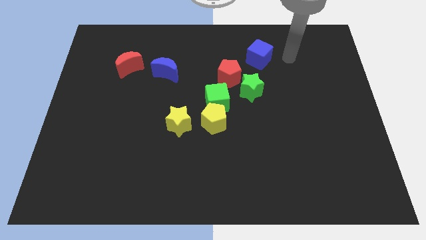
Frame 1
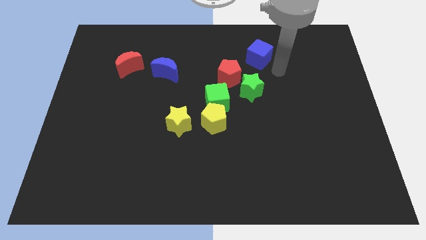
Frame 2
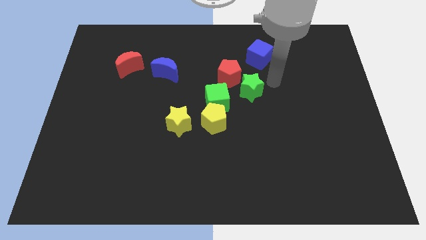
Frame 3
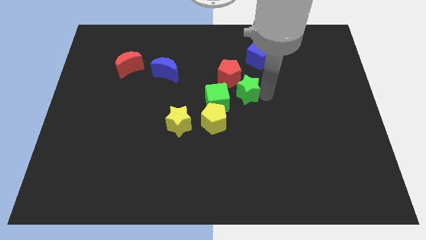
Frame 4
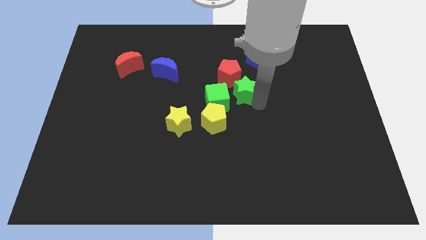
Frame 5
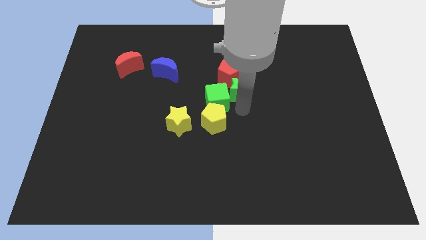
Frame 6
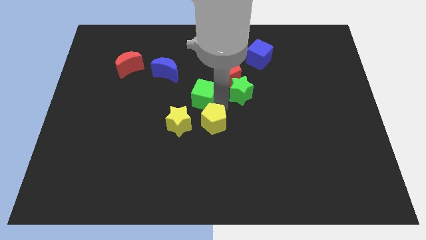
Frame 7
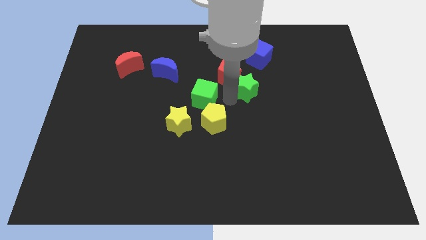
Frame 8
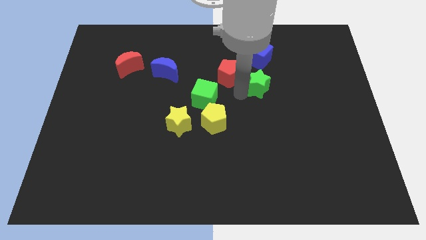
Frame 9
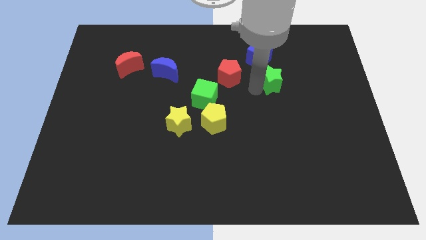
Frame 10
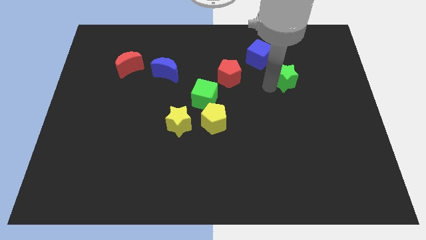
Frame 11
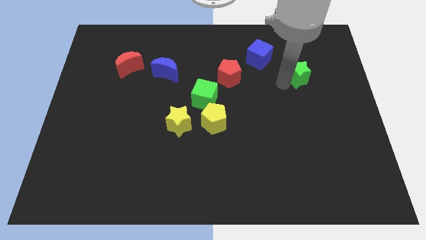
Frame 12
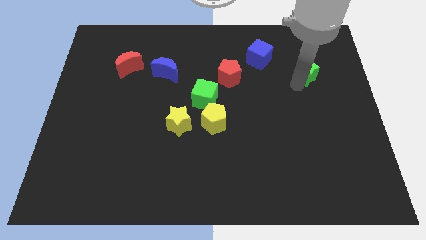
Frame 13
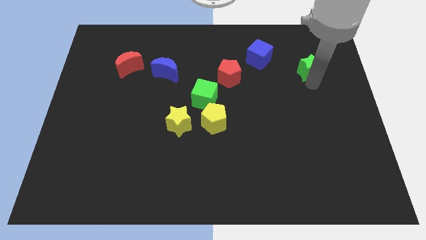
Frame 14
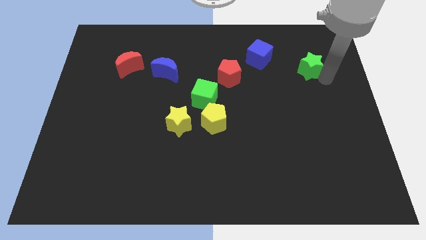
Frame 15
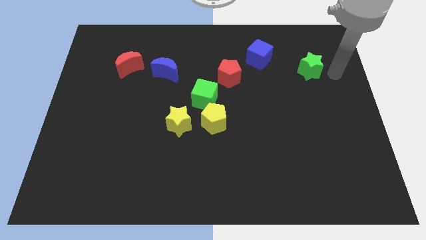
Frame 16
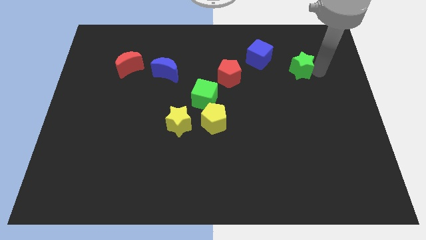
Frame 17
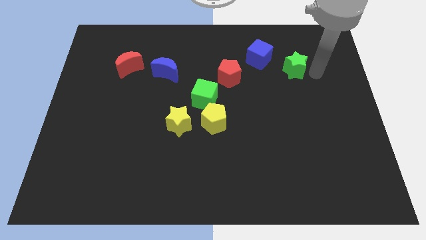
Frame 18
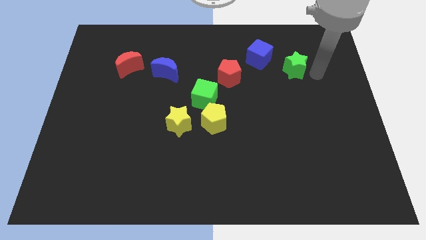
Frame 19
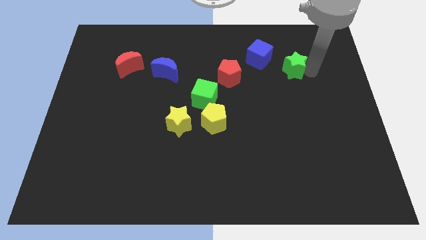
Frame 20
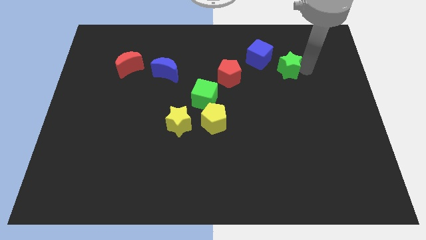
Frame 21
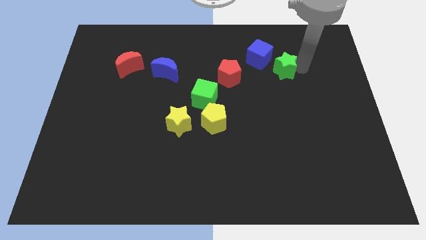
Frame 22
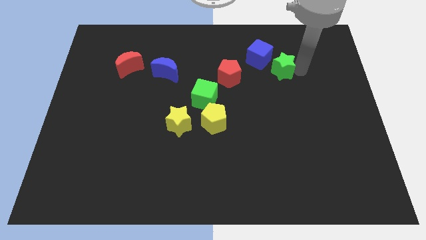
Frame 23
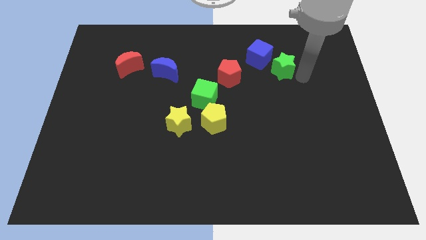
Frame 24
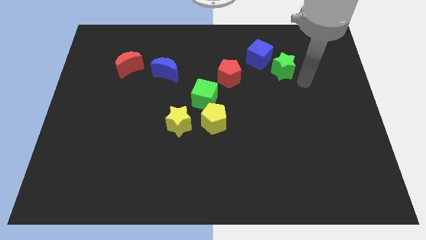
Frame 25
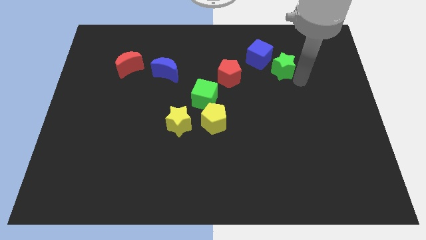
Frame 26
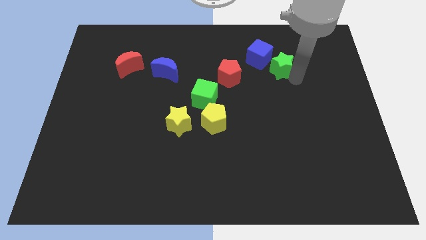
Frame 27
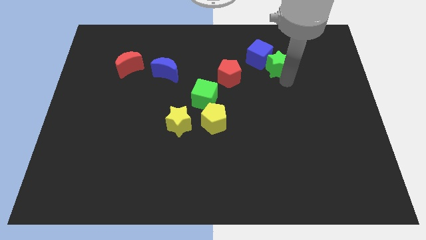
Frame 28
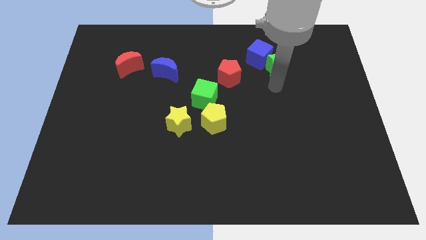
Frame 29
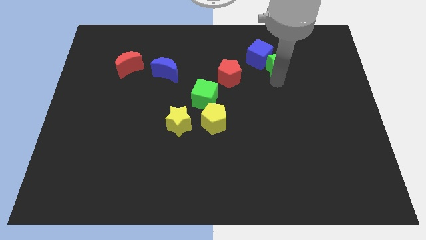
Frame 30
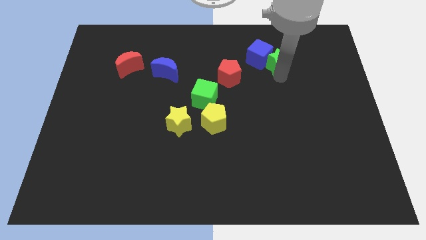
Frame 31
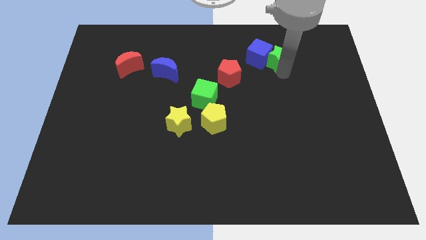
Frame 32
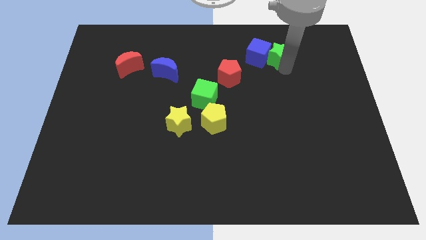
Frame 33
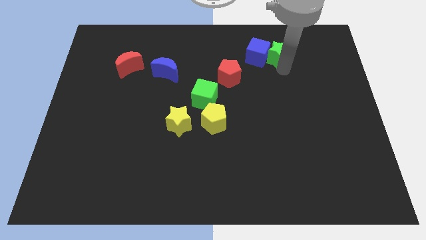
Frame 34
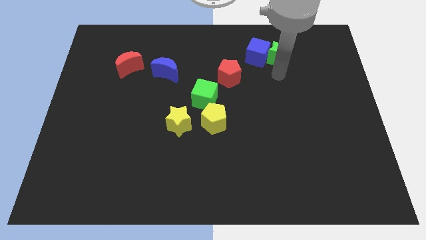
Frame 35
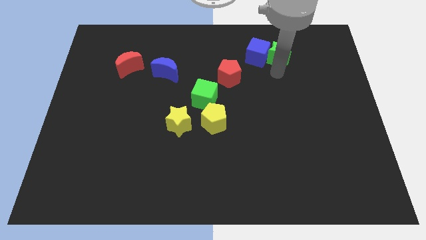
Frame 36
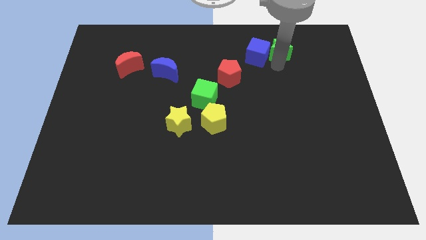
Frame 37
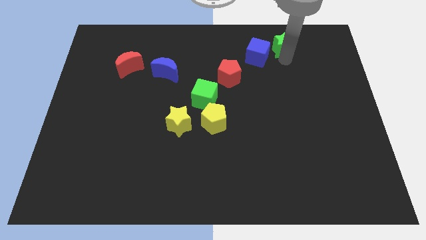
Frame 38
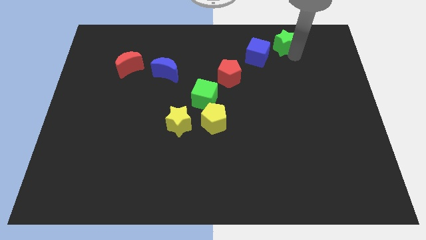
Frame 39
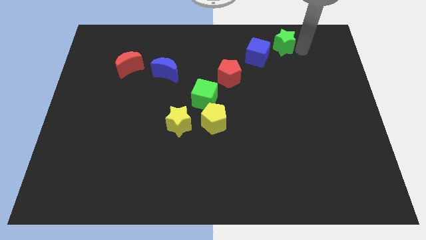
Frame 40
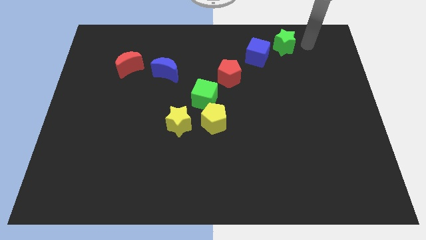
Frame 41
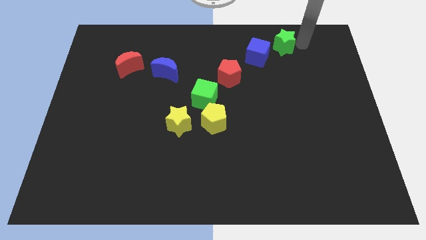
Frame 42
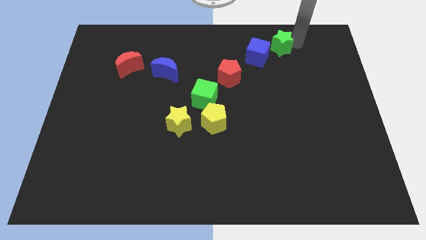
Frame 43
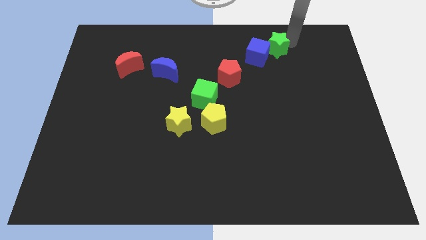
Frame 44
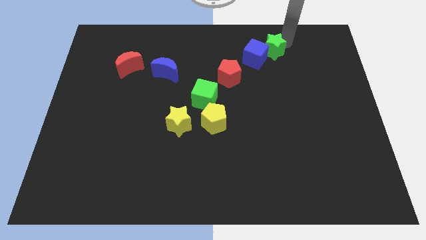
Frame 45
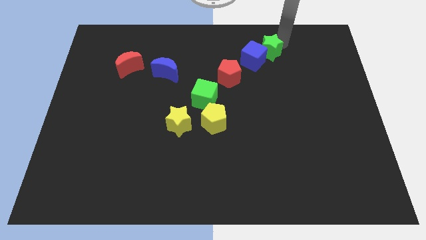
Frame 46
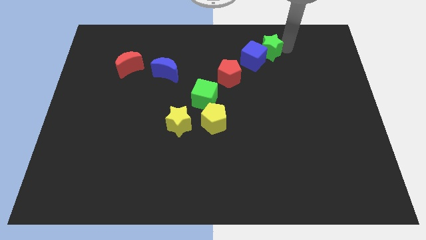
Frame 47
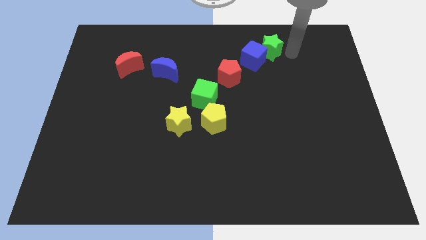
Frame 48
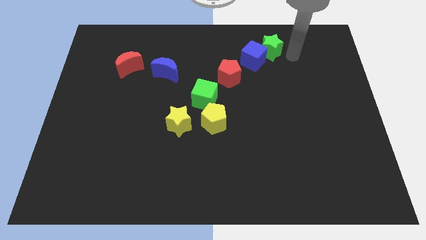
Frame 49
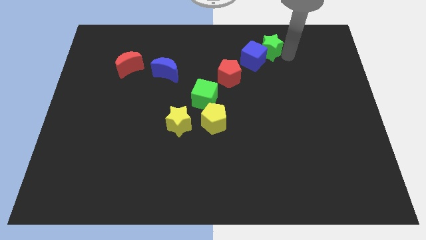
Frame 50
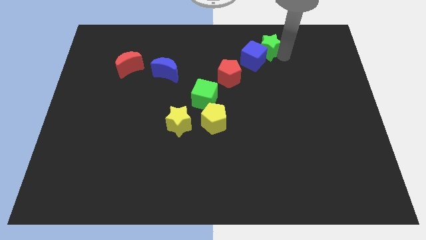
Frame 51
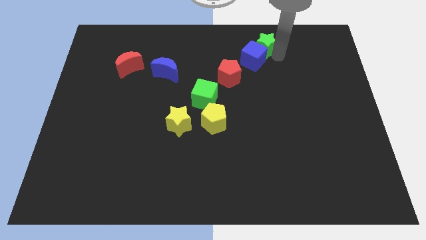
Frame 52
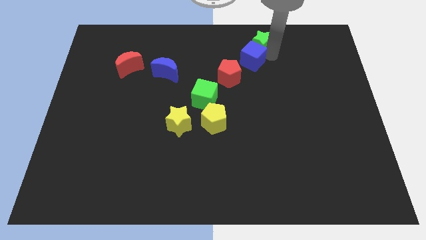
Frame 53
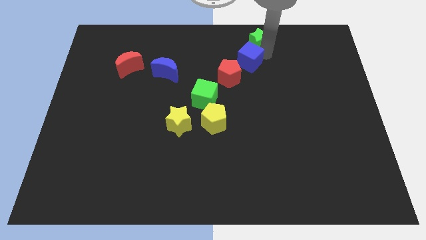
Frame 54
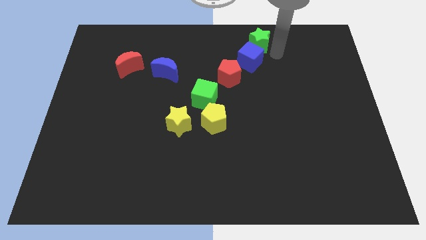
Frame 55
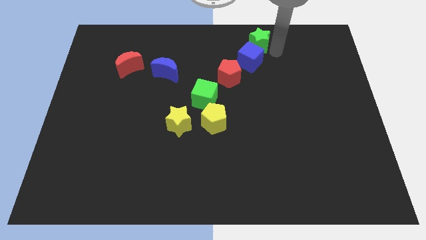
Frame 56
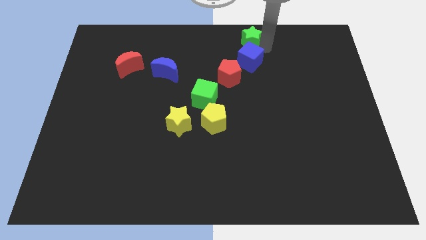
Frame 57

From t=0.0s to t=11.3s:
put the green star to the top

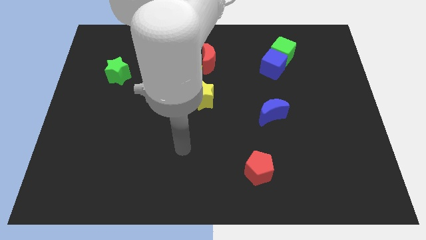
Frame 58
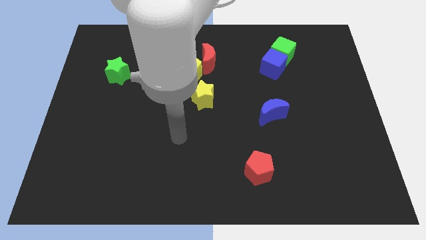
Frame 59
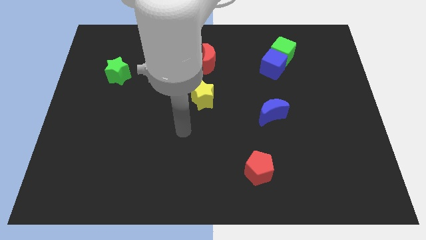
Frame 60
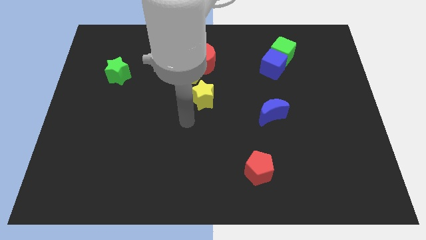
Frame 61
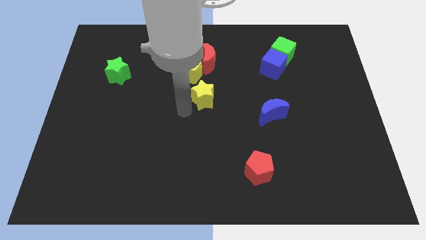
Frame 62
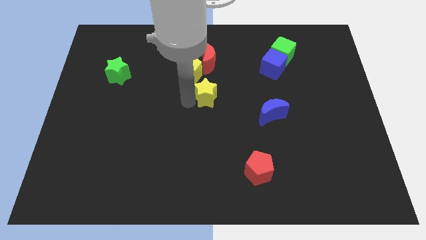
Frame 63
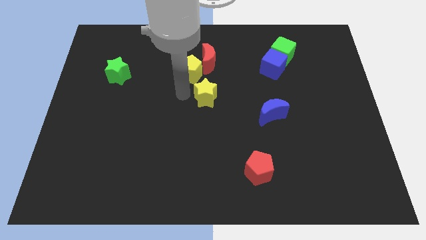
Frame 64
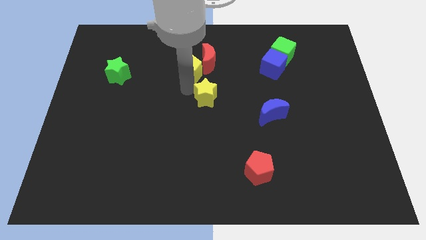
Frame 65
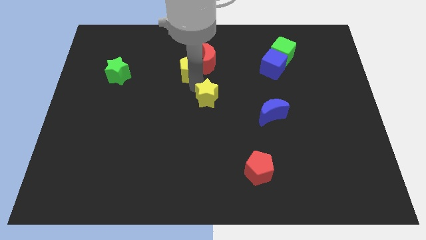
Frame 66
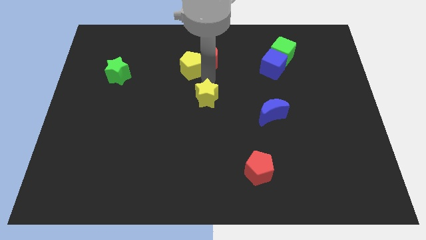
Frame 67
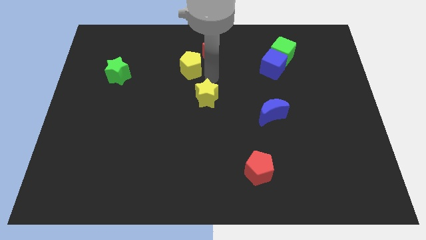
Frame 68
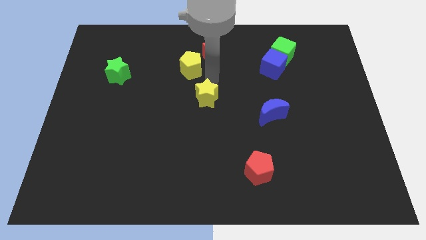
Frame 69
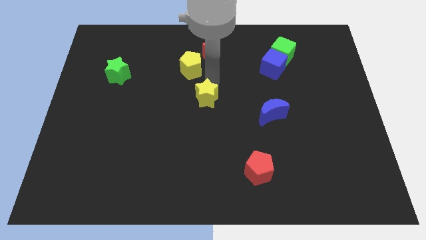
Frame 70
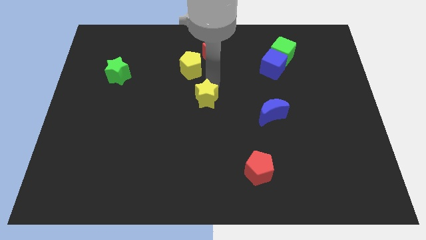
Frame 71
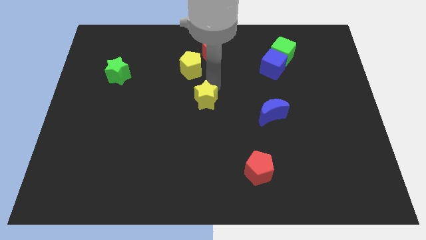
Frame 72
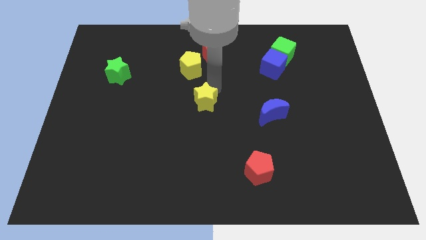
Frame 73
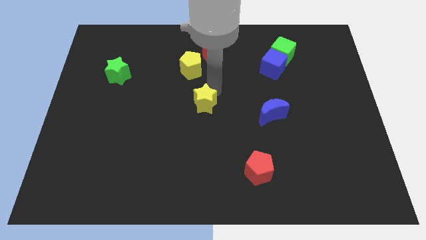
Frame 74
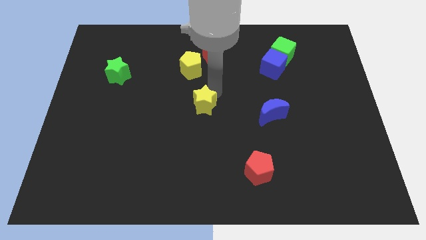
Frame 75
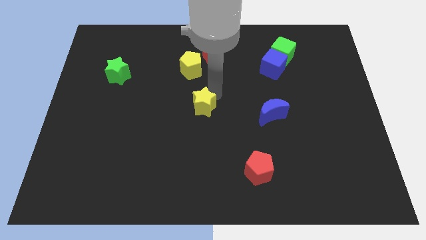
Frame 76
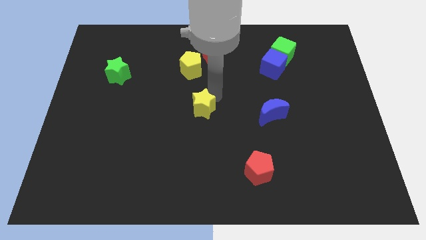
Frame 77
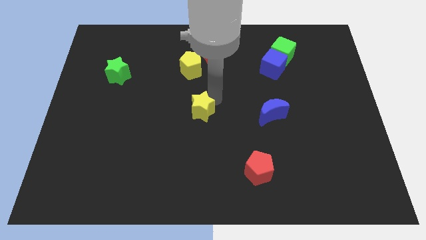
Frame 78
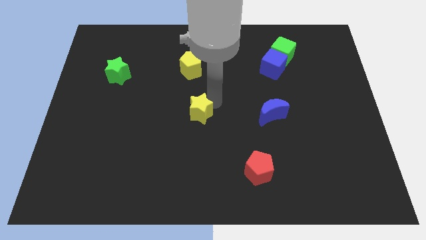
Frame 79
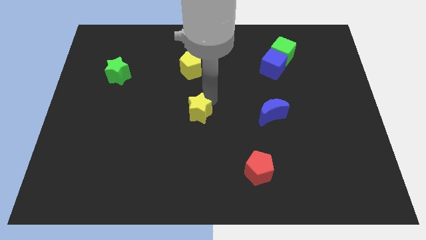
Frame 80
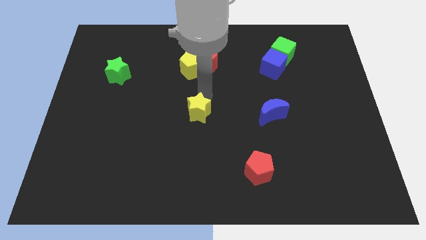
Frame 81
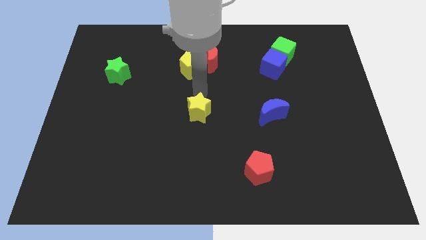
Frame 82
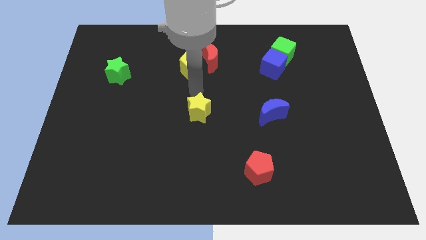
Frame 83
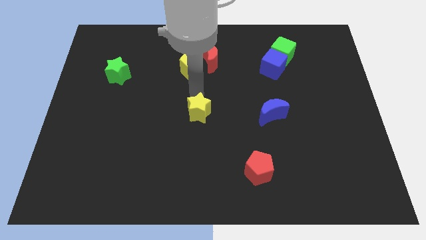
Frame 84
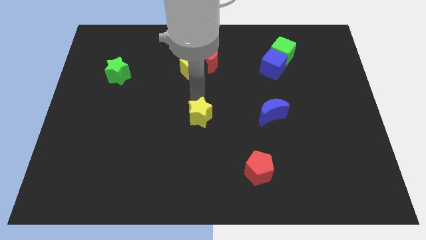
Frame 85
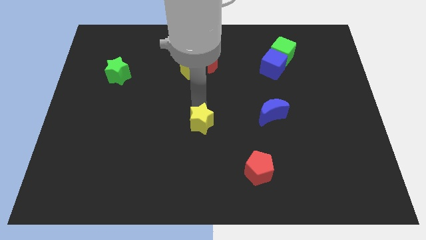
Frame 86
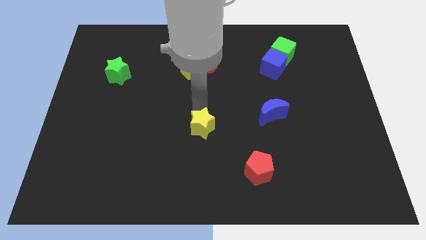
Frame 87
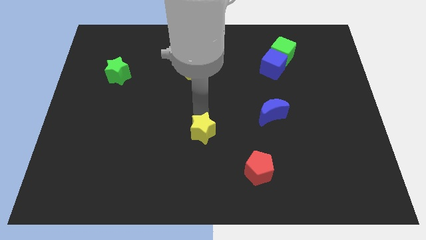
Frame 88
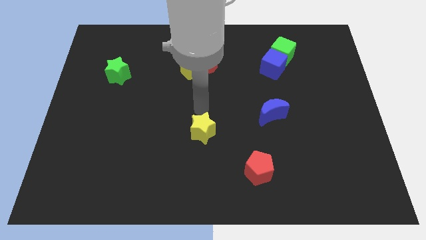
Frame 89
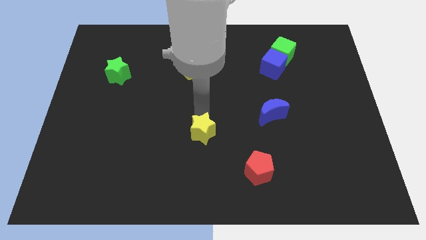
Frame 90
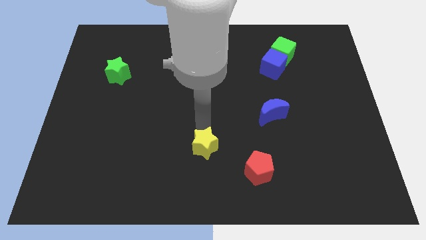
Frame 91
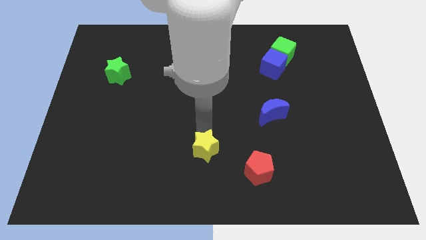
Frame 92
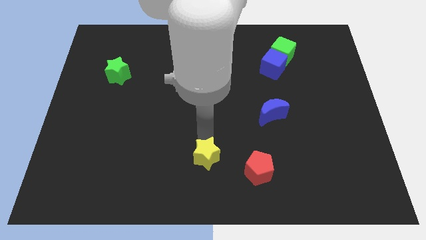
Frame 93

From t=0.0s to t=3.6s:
put the yellow star to the bottom side
